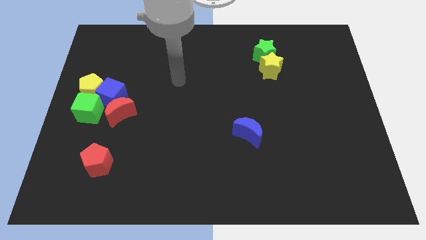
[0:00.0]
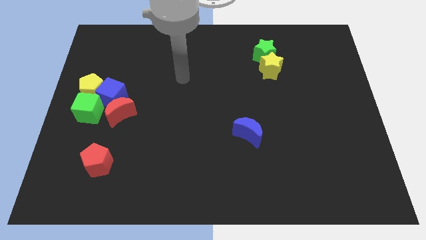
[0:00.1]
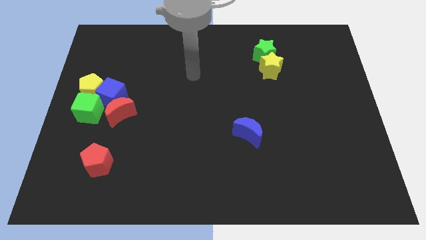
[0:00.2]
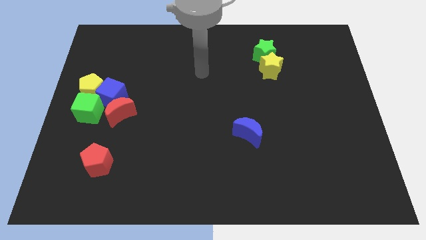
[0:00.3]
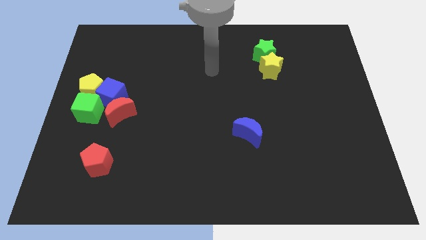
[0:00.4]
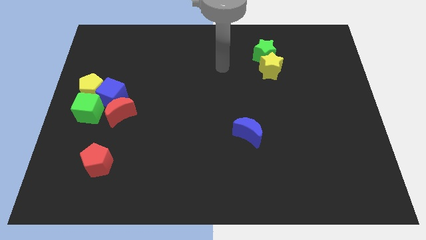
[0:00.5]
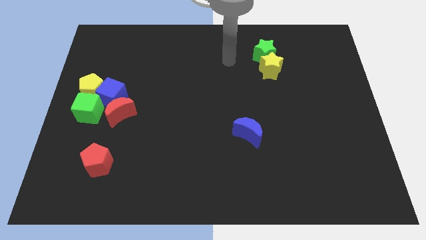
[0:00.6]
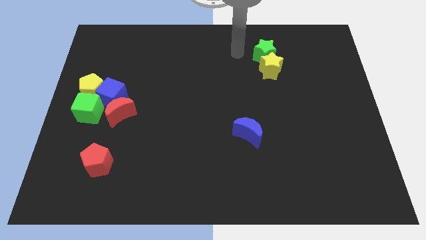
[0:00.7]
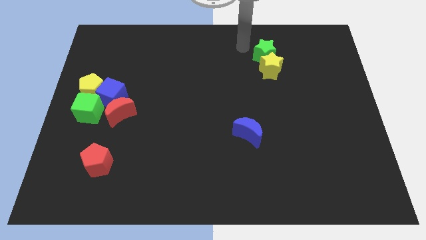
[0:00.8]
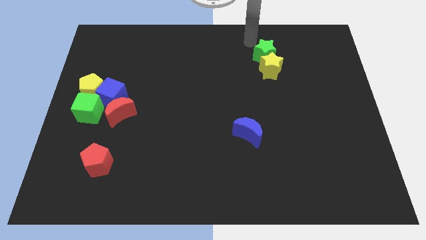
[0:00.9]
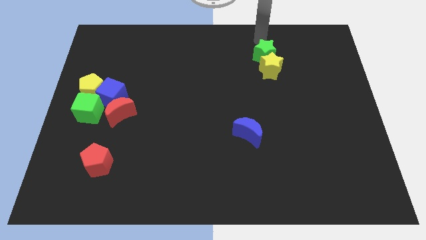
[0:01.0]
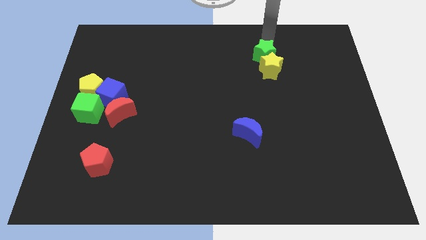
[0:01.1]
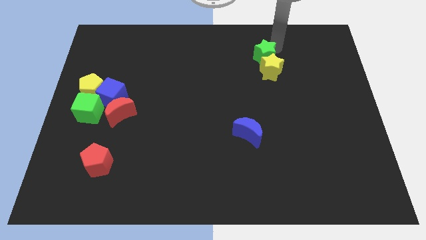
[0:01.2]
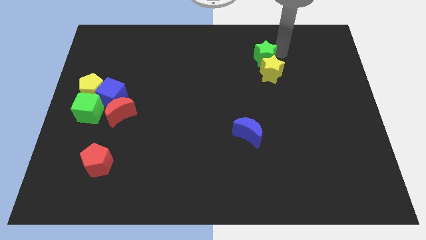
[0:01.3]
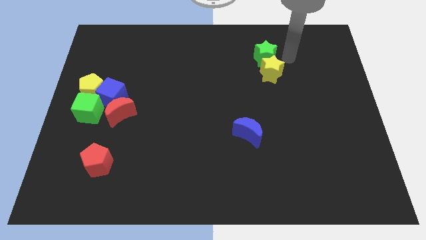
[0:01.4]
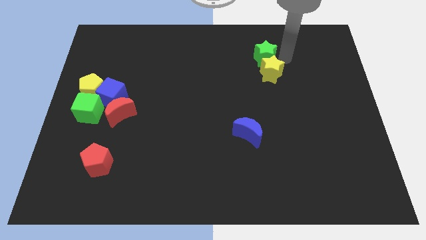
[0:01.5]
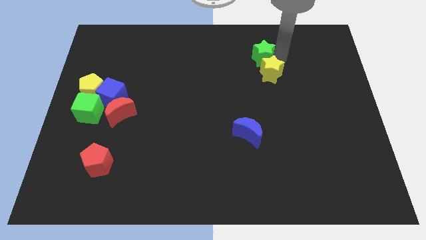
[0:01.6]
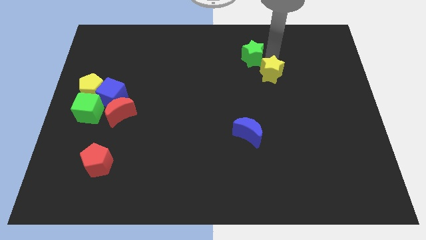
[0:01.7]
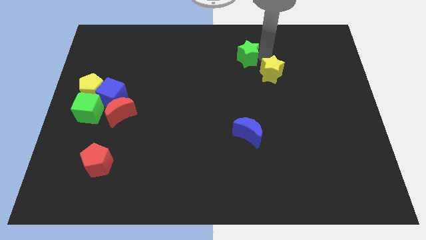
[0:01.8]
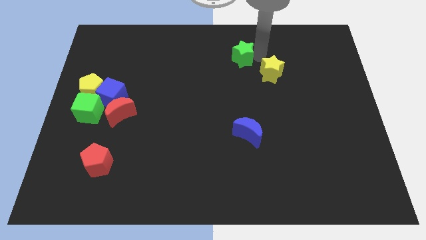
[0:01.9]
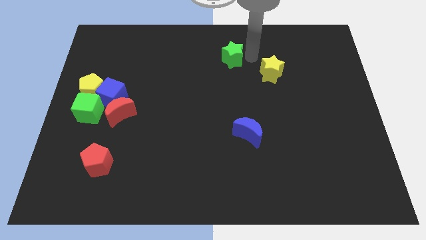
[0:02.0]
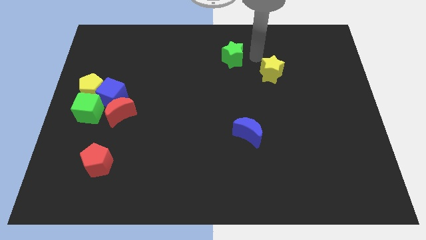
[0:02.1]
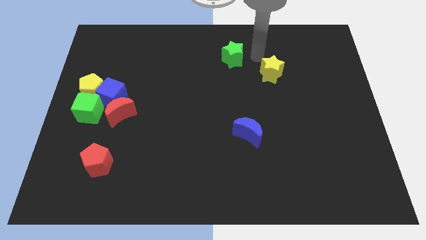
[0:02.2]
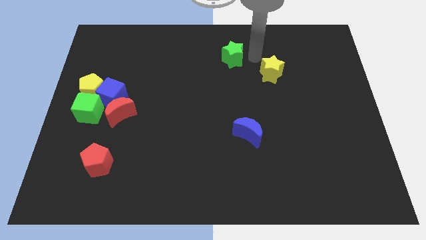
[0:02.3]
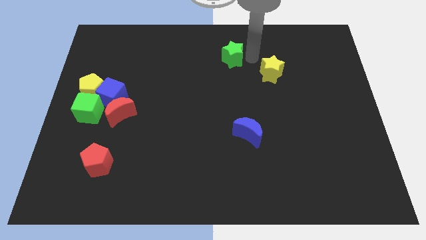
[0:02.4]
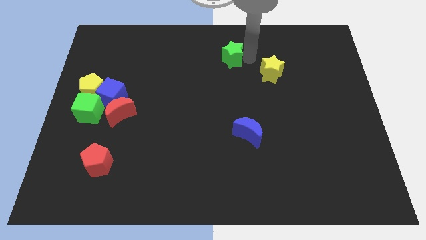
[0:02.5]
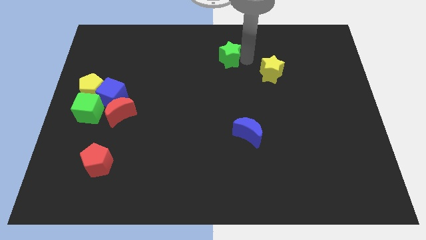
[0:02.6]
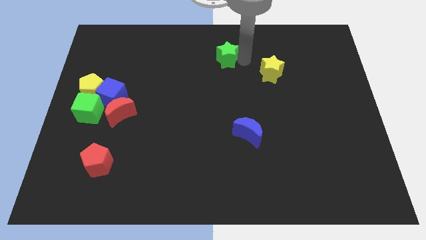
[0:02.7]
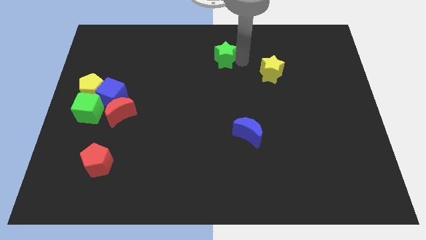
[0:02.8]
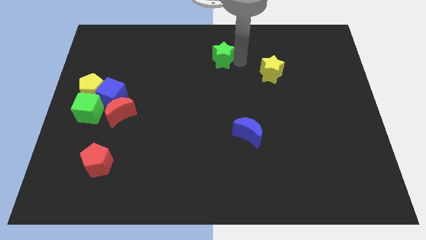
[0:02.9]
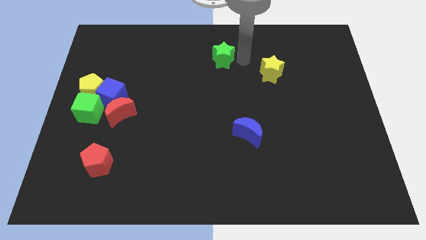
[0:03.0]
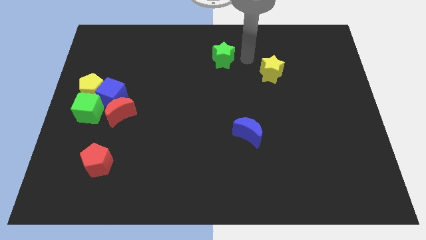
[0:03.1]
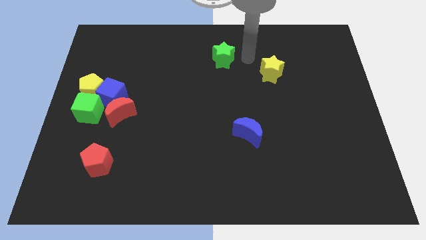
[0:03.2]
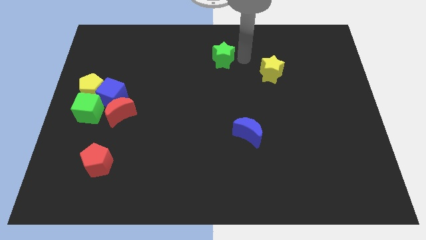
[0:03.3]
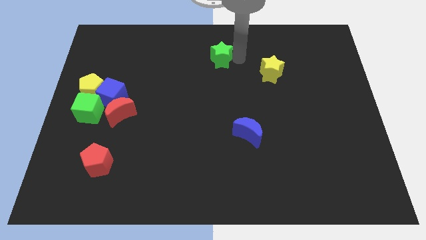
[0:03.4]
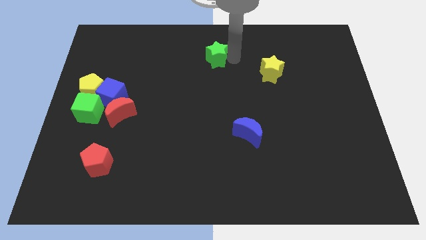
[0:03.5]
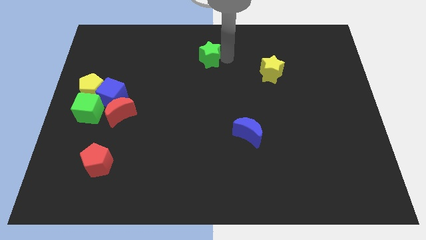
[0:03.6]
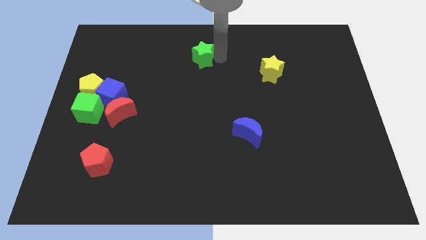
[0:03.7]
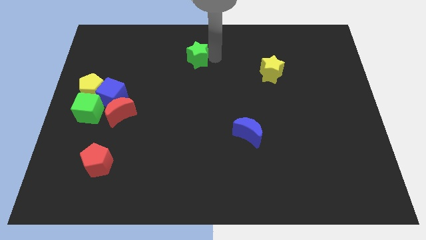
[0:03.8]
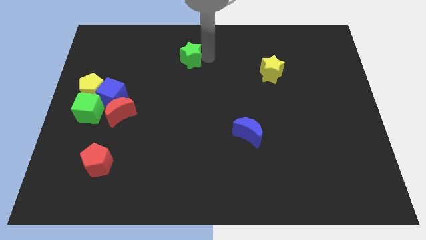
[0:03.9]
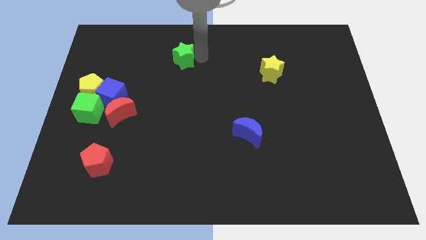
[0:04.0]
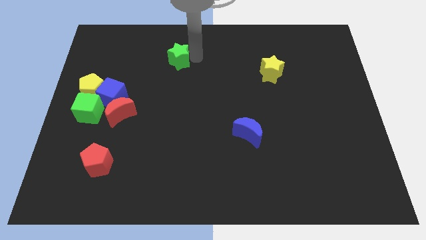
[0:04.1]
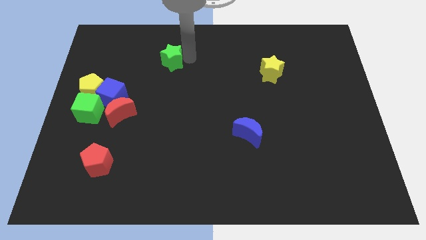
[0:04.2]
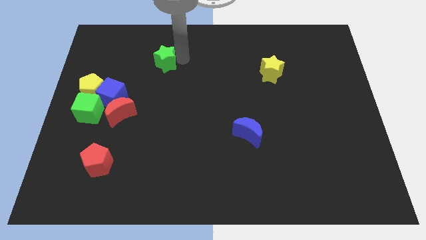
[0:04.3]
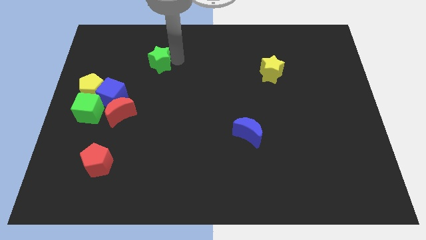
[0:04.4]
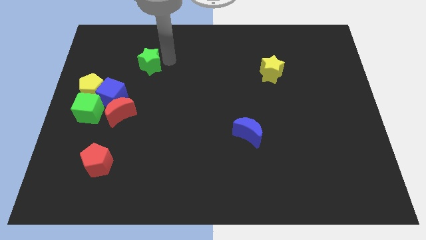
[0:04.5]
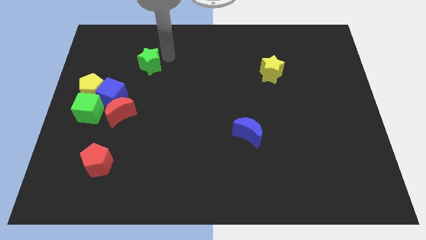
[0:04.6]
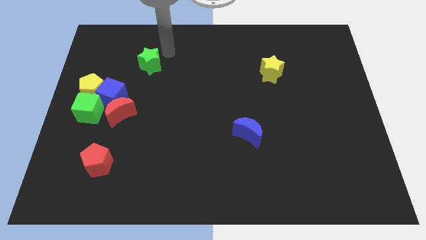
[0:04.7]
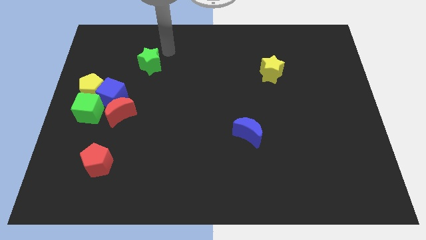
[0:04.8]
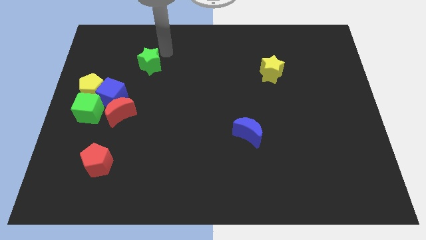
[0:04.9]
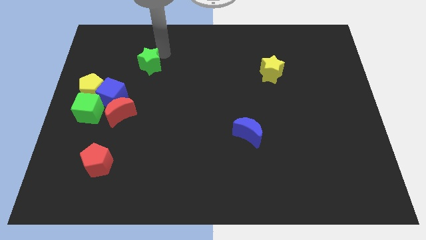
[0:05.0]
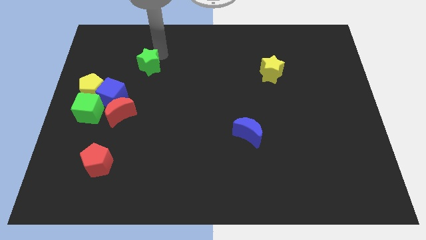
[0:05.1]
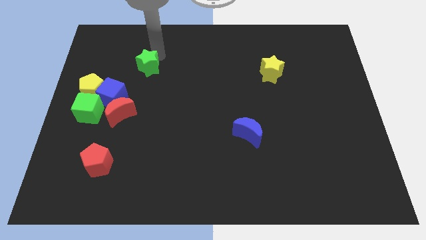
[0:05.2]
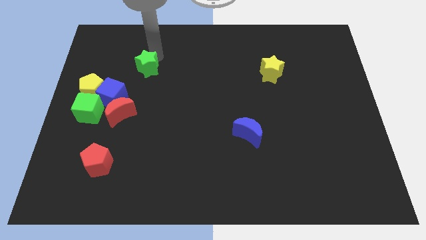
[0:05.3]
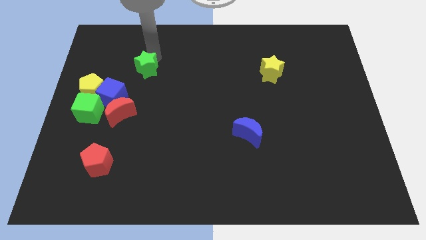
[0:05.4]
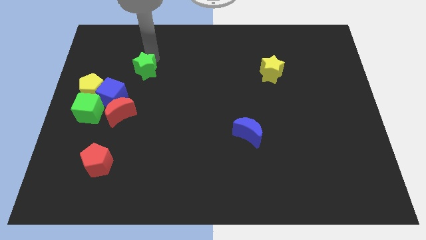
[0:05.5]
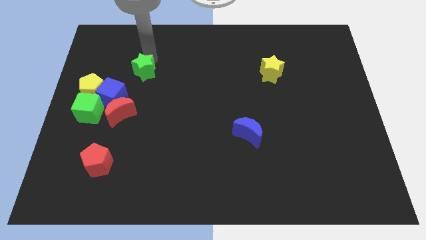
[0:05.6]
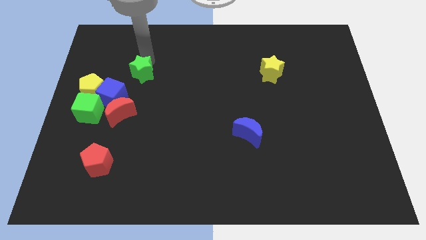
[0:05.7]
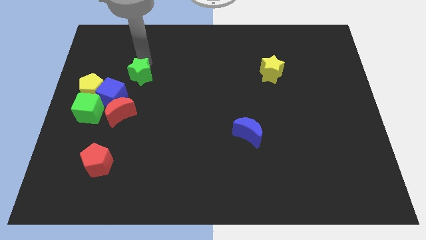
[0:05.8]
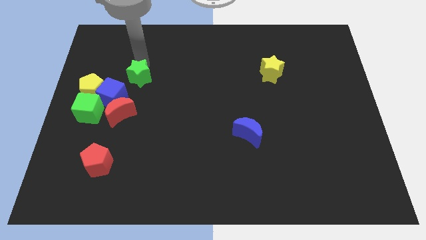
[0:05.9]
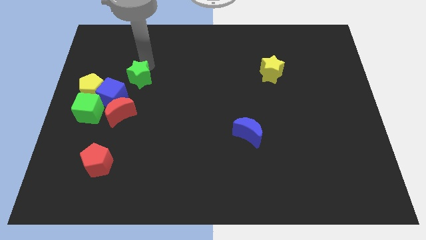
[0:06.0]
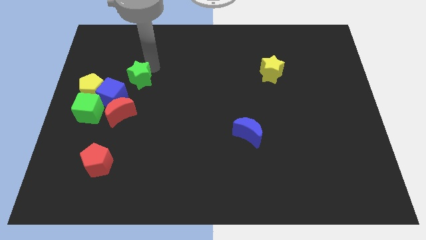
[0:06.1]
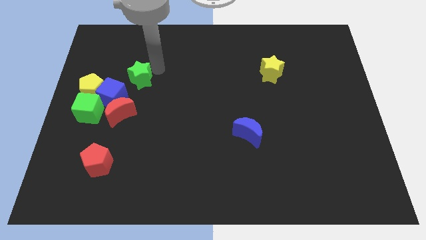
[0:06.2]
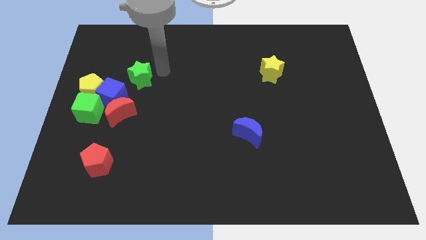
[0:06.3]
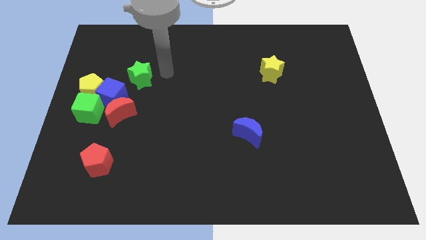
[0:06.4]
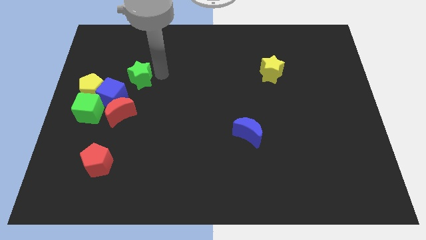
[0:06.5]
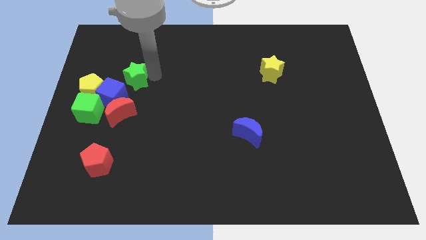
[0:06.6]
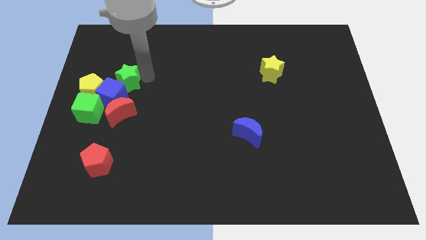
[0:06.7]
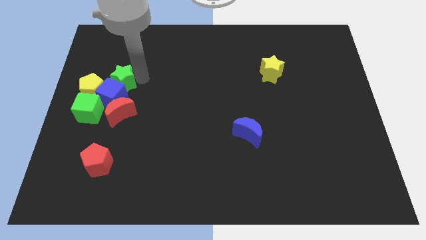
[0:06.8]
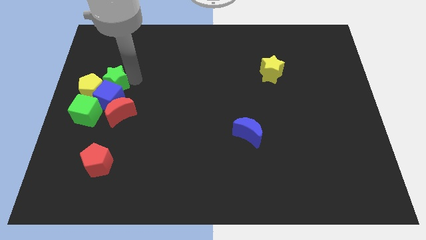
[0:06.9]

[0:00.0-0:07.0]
put the green star close to the yellow pentagon

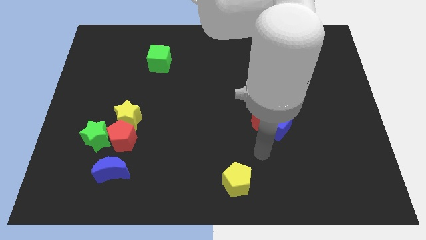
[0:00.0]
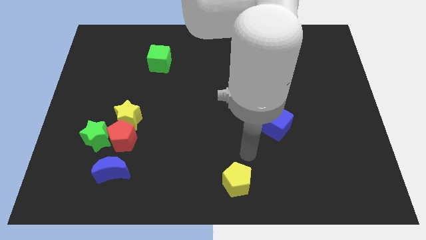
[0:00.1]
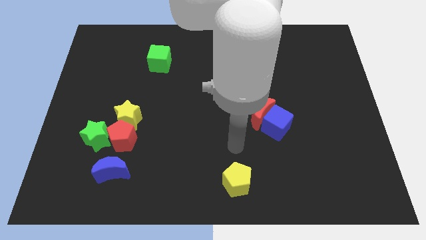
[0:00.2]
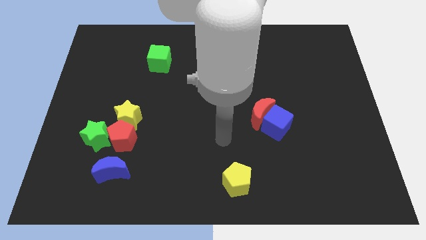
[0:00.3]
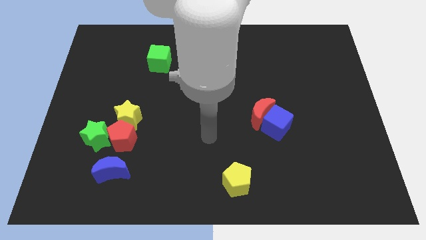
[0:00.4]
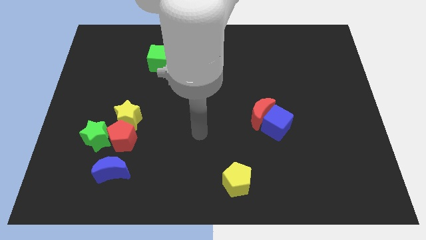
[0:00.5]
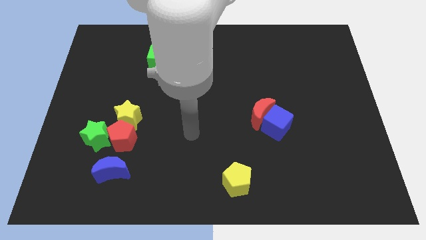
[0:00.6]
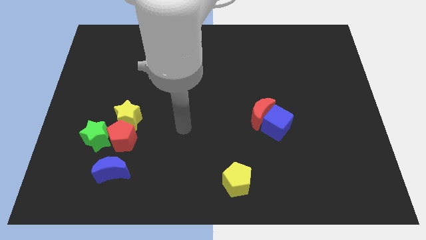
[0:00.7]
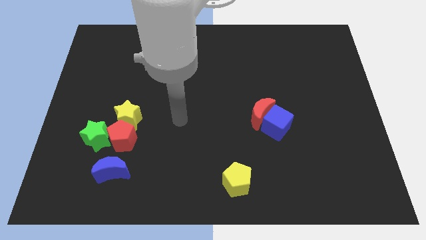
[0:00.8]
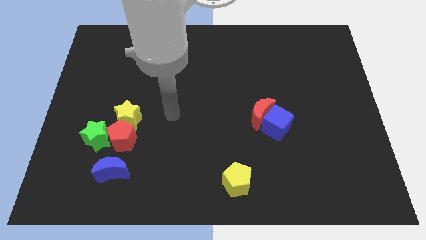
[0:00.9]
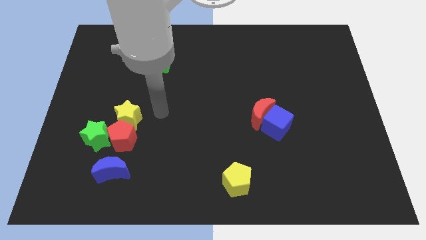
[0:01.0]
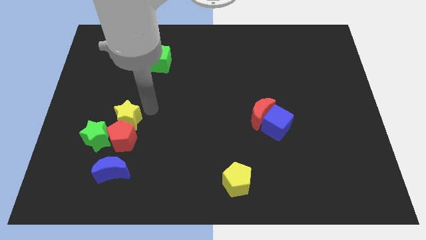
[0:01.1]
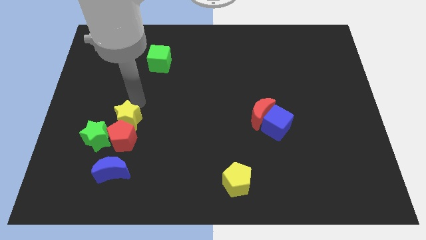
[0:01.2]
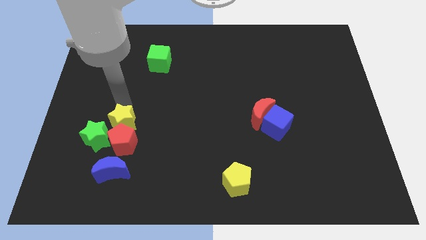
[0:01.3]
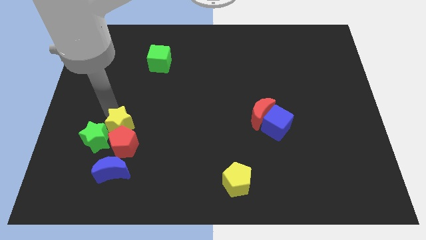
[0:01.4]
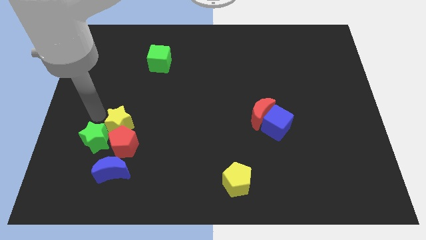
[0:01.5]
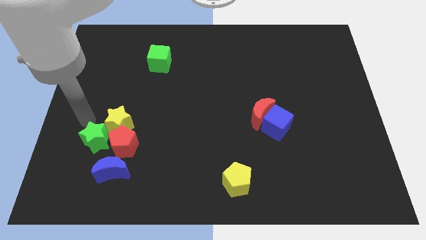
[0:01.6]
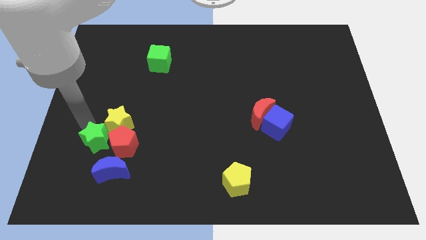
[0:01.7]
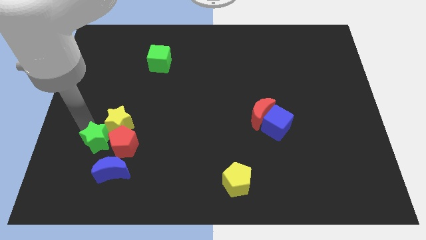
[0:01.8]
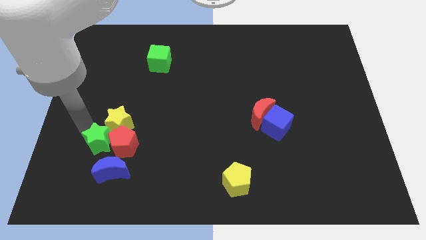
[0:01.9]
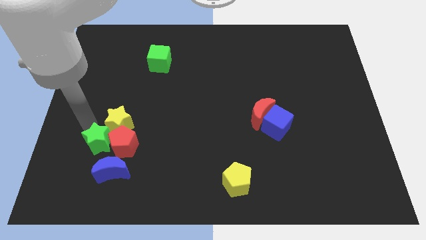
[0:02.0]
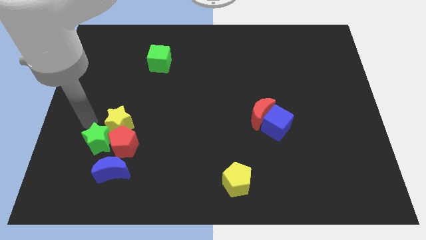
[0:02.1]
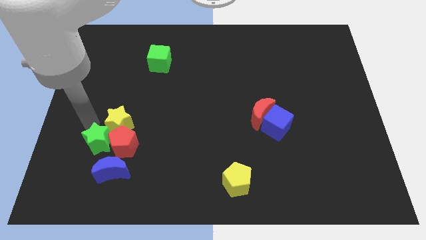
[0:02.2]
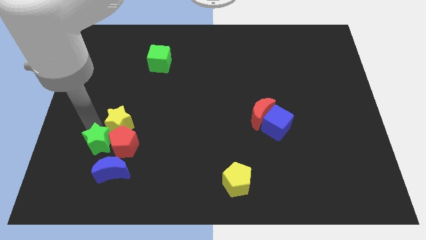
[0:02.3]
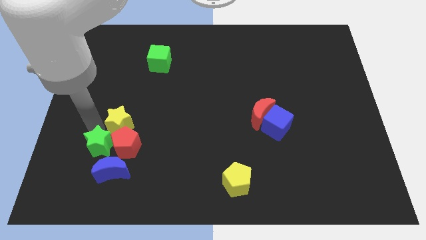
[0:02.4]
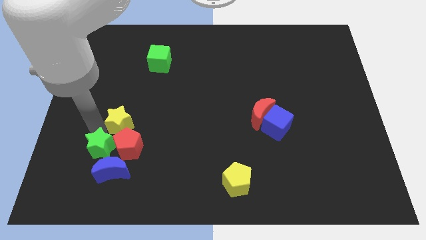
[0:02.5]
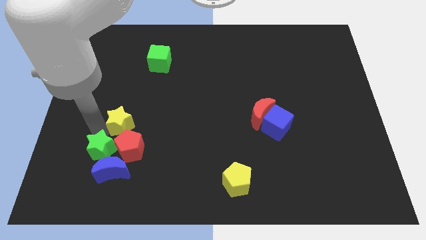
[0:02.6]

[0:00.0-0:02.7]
slide the green star to the blue moon
